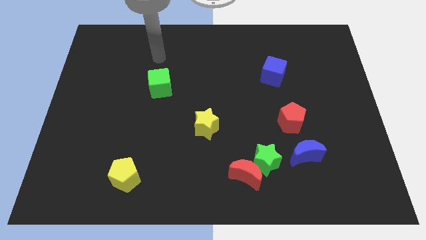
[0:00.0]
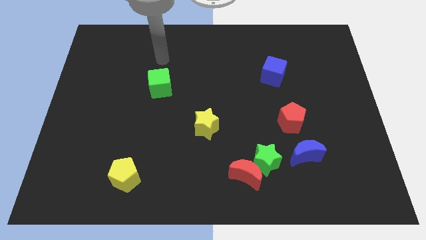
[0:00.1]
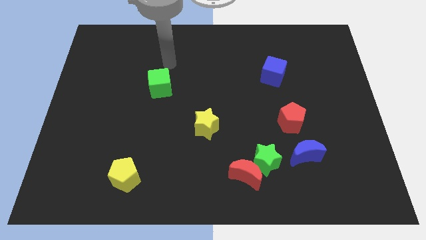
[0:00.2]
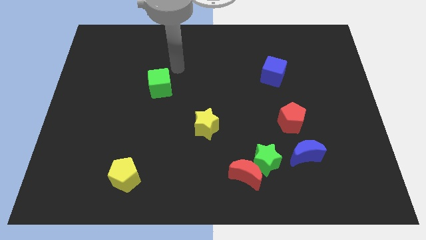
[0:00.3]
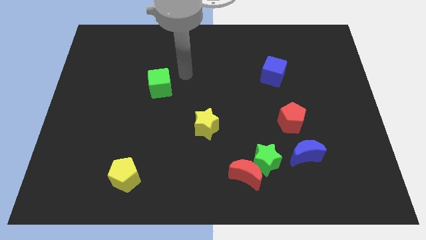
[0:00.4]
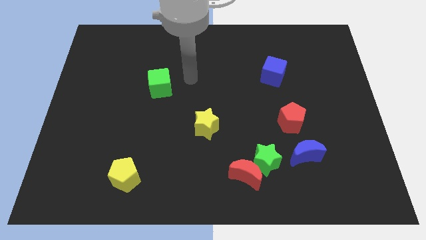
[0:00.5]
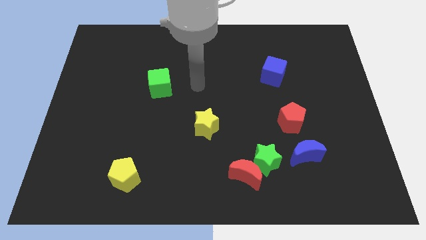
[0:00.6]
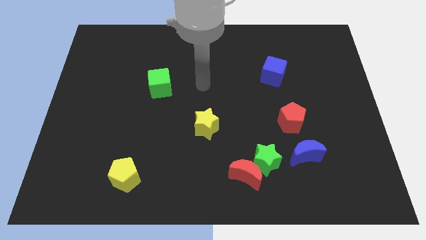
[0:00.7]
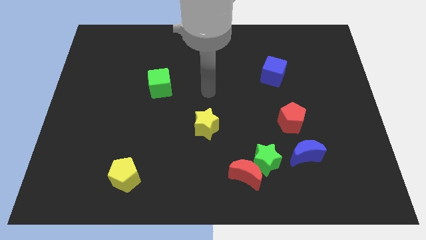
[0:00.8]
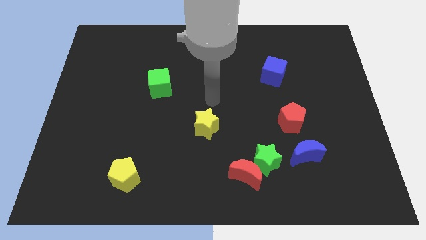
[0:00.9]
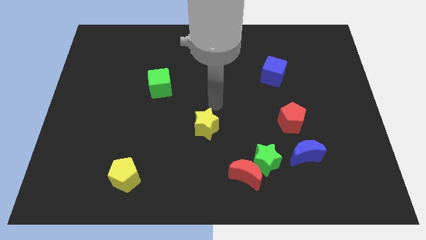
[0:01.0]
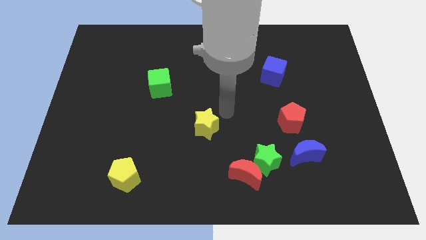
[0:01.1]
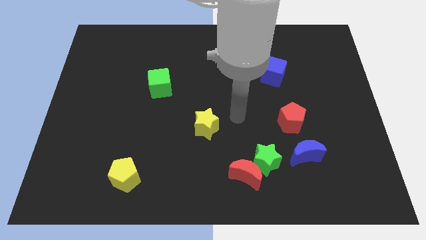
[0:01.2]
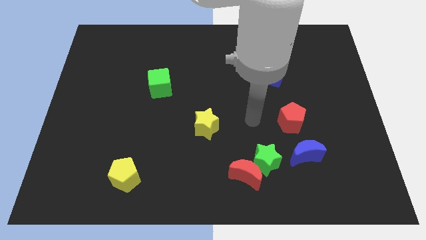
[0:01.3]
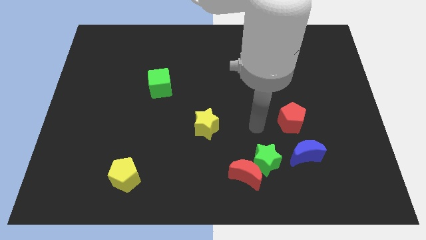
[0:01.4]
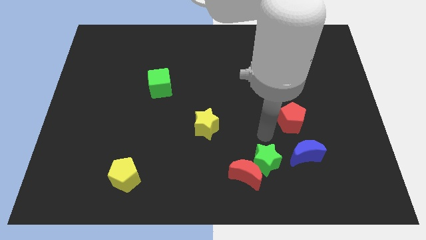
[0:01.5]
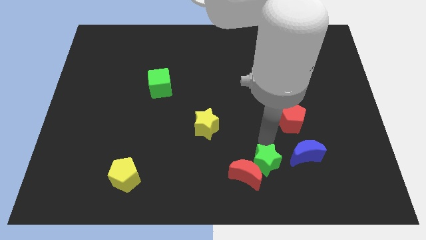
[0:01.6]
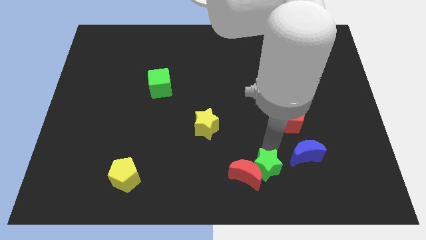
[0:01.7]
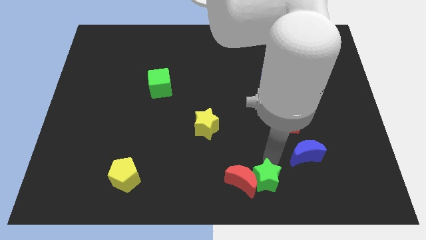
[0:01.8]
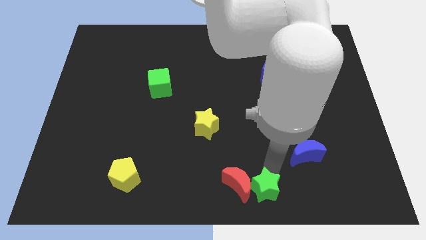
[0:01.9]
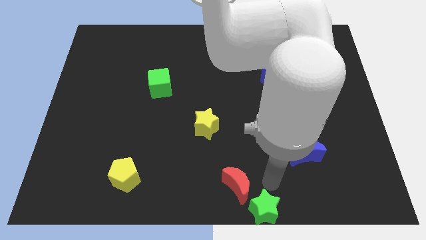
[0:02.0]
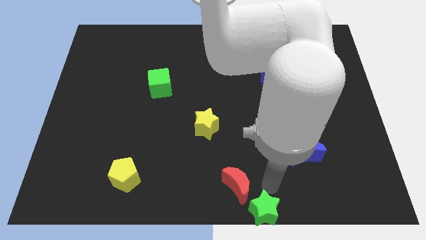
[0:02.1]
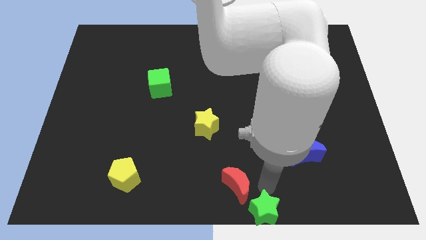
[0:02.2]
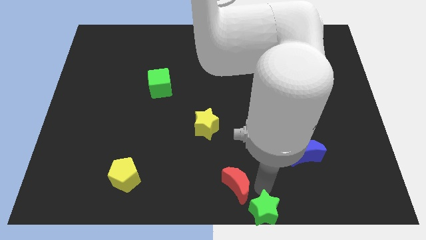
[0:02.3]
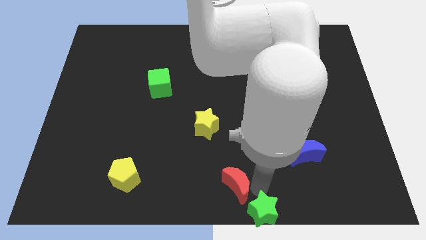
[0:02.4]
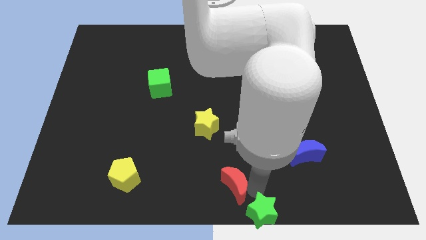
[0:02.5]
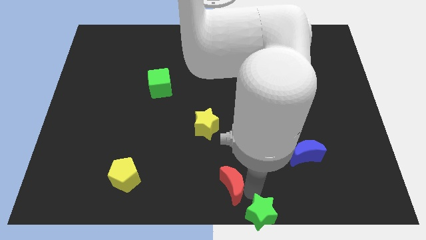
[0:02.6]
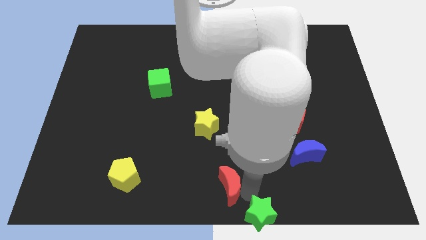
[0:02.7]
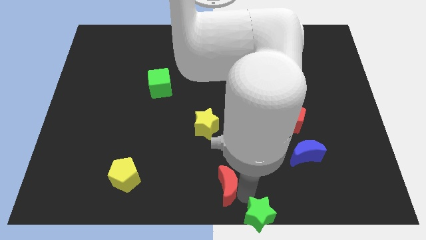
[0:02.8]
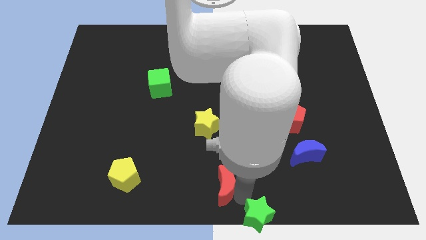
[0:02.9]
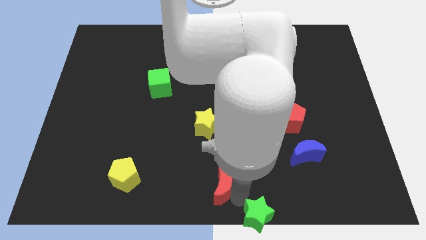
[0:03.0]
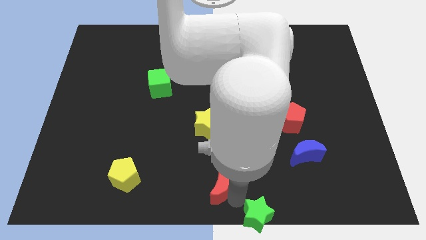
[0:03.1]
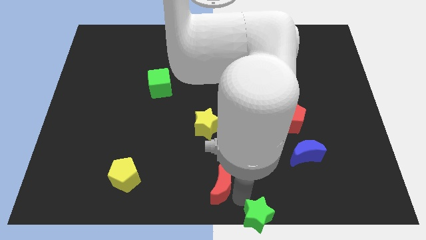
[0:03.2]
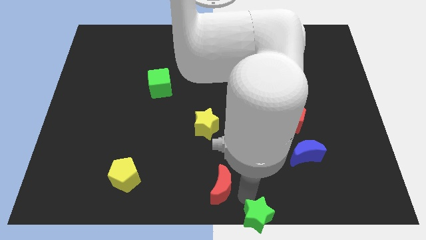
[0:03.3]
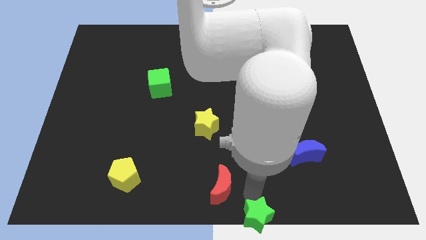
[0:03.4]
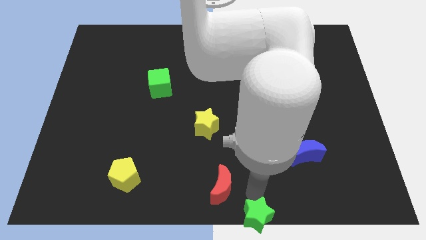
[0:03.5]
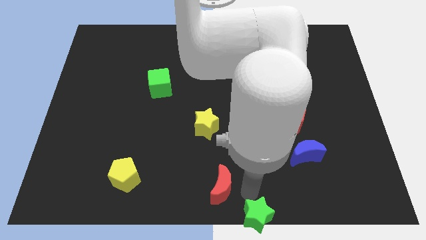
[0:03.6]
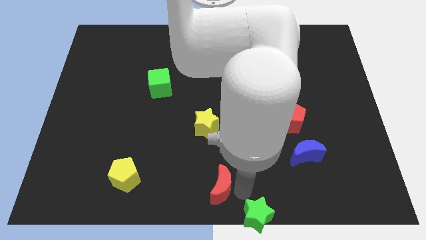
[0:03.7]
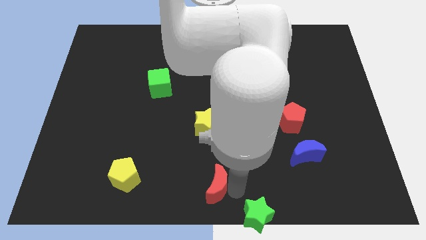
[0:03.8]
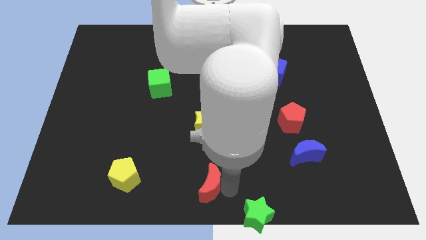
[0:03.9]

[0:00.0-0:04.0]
slightly slide the red moon left

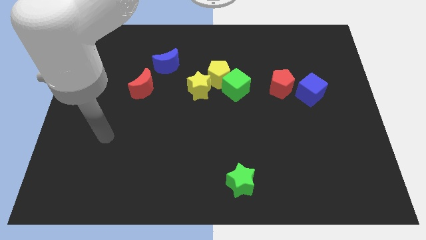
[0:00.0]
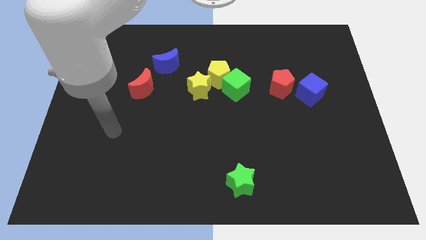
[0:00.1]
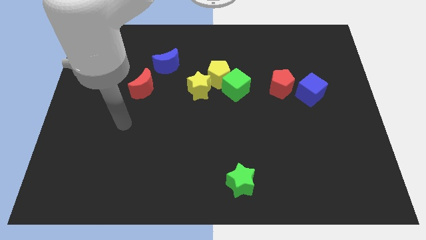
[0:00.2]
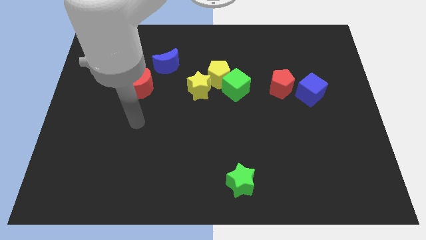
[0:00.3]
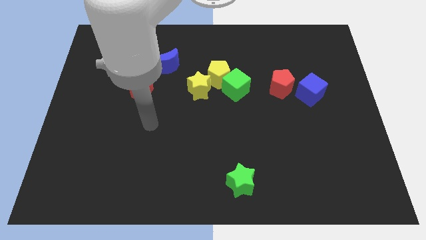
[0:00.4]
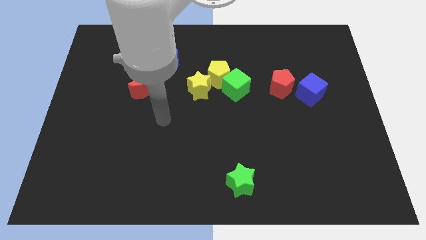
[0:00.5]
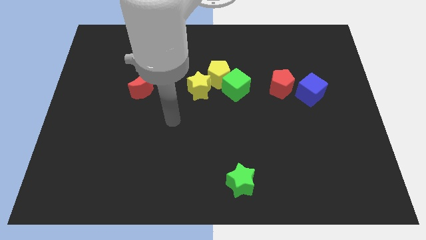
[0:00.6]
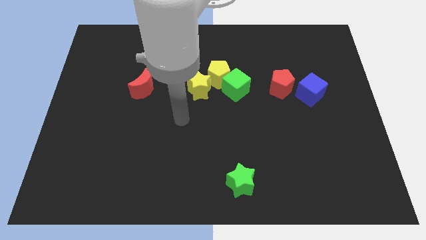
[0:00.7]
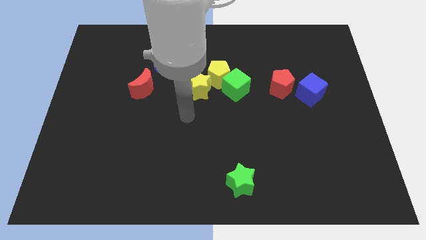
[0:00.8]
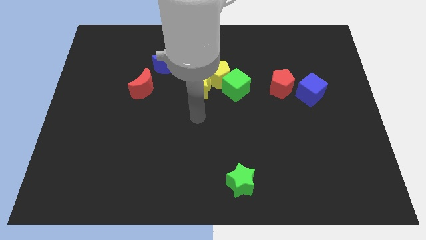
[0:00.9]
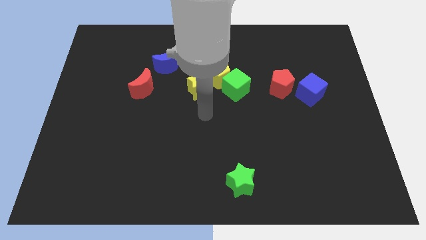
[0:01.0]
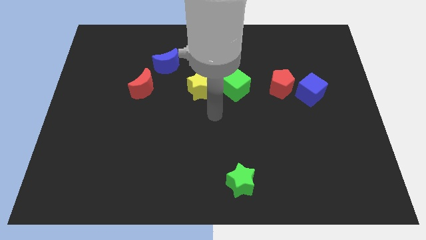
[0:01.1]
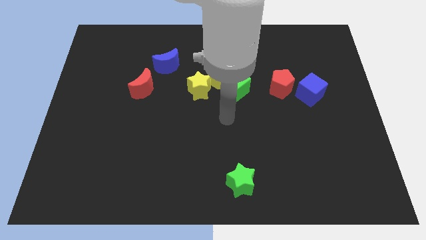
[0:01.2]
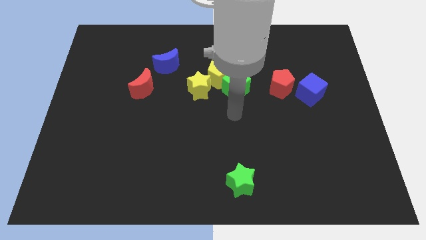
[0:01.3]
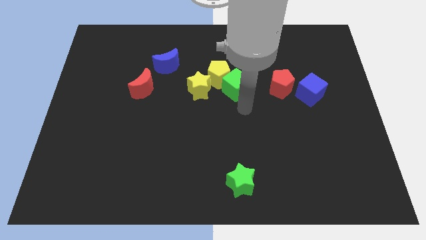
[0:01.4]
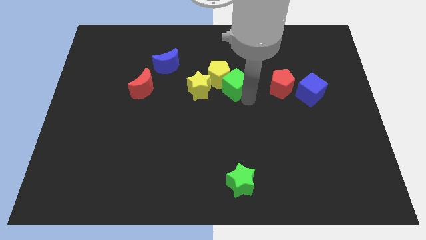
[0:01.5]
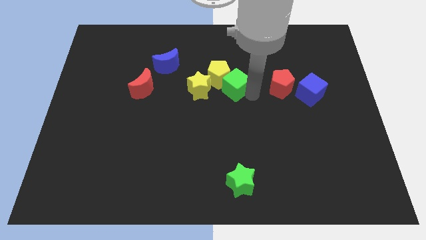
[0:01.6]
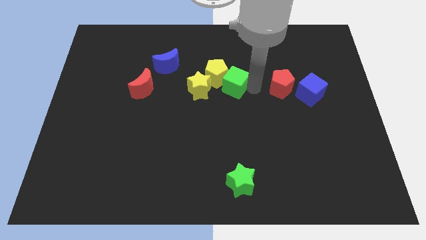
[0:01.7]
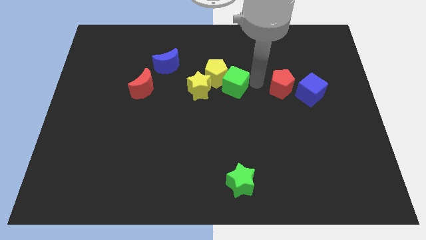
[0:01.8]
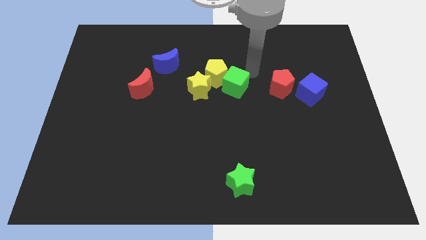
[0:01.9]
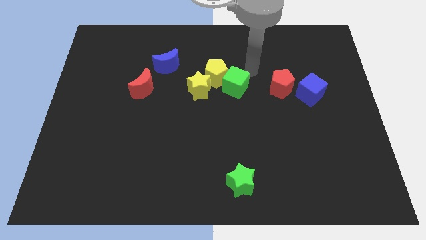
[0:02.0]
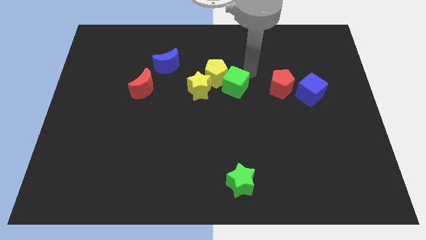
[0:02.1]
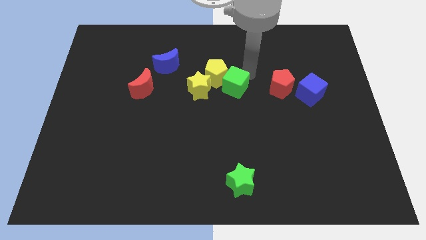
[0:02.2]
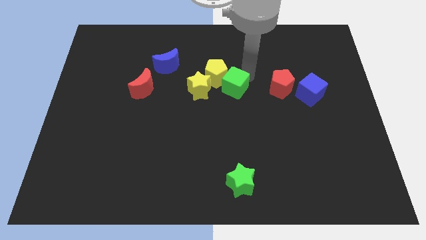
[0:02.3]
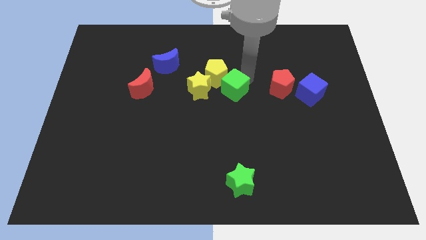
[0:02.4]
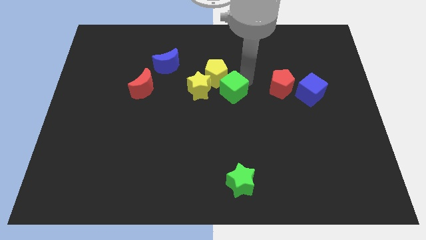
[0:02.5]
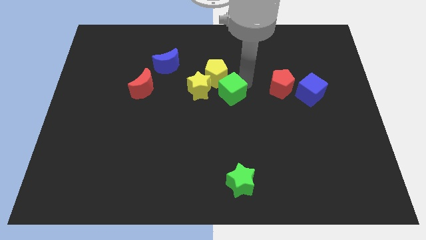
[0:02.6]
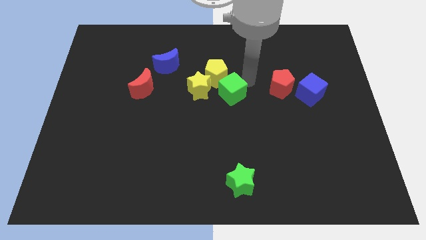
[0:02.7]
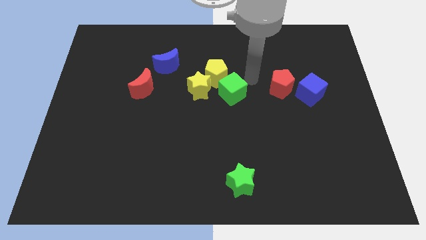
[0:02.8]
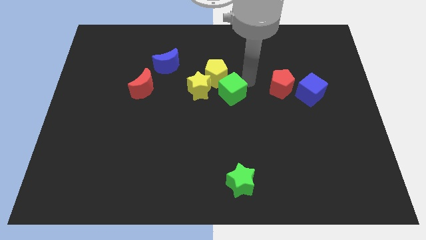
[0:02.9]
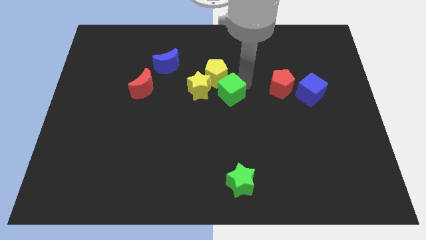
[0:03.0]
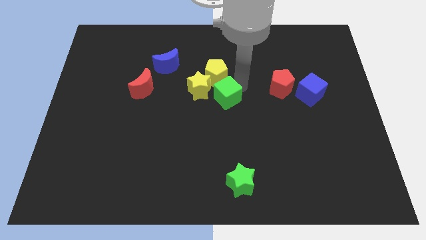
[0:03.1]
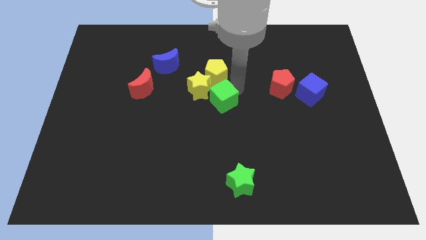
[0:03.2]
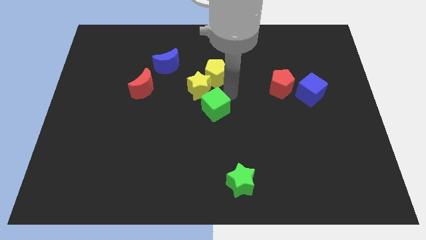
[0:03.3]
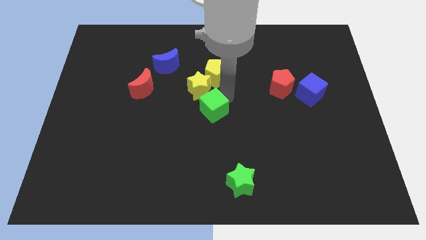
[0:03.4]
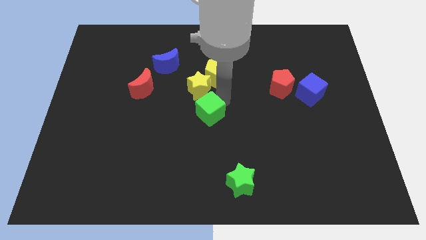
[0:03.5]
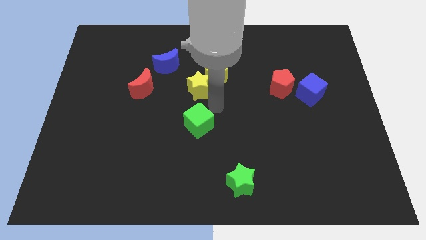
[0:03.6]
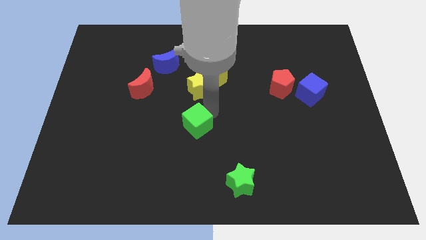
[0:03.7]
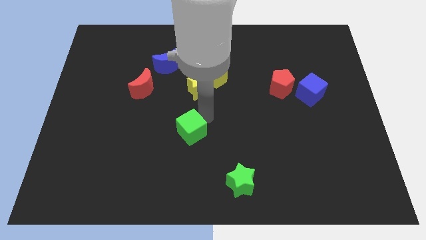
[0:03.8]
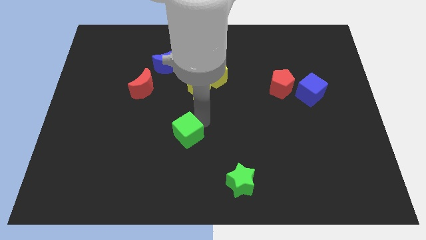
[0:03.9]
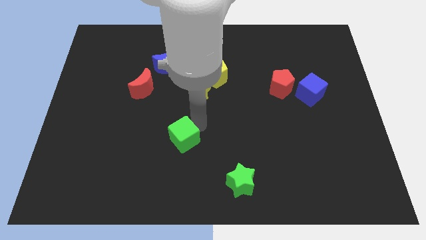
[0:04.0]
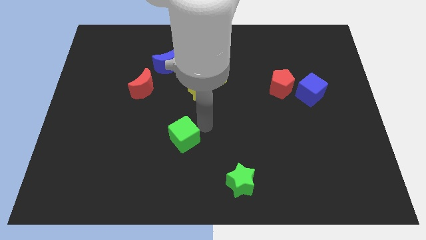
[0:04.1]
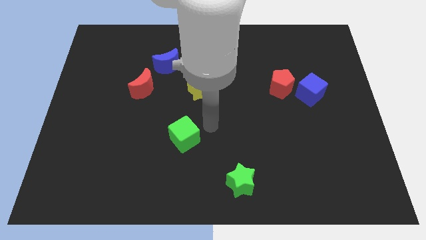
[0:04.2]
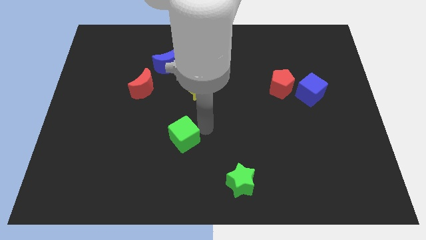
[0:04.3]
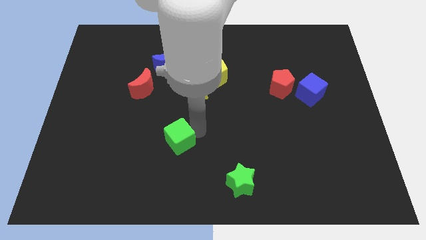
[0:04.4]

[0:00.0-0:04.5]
push the green cube down and then to the left
